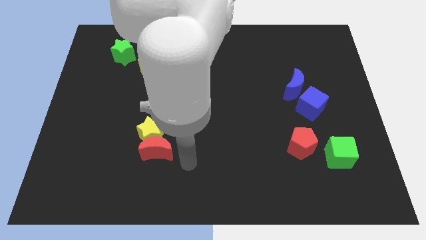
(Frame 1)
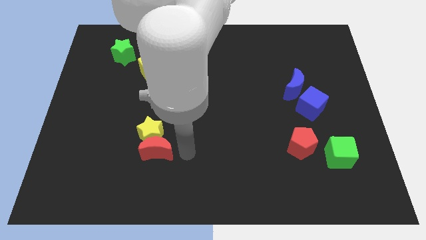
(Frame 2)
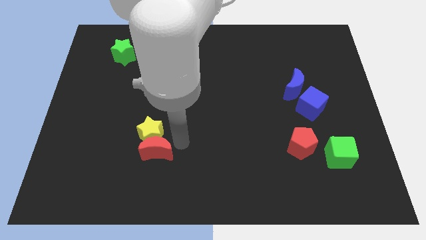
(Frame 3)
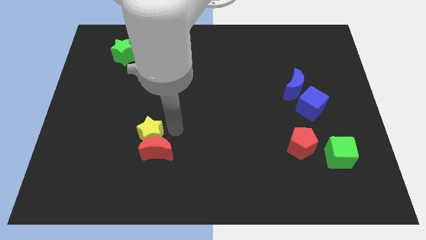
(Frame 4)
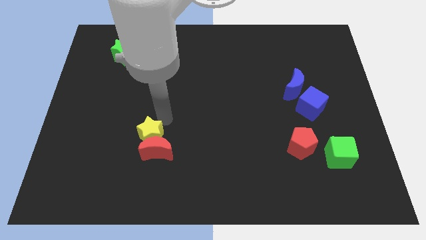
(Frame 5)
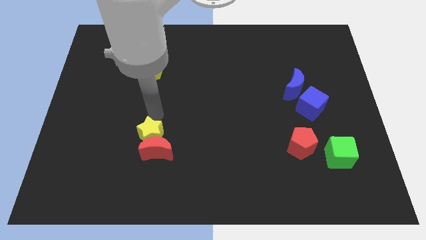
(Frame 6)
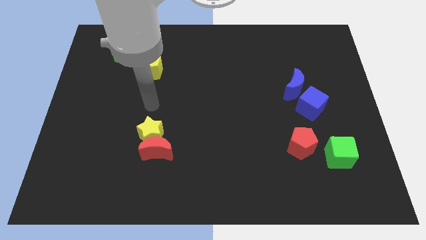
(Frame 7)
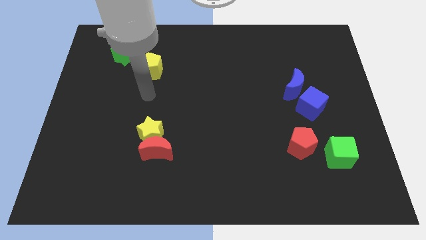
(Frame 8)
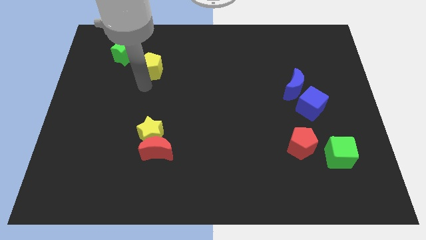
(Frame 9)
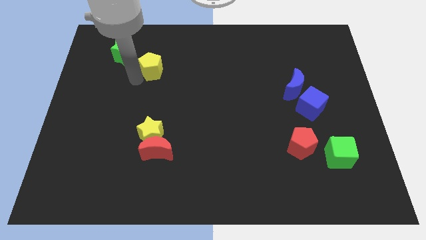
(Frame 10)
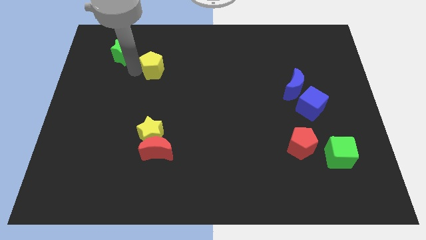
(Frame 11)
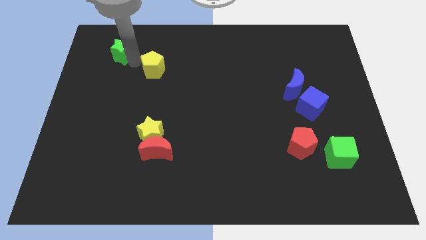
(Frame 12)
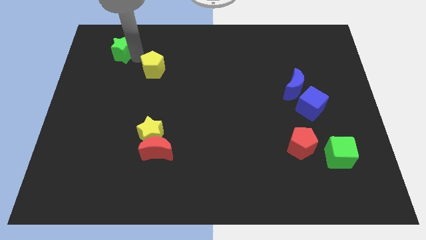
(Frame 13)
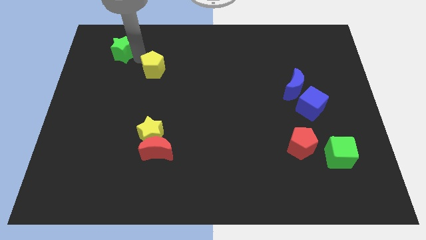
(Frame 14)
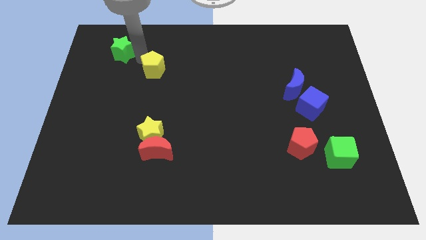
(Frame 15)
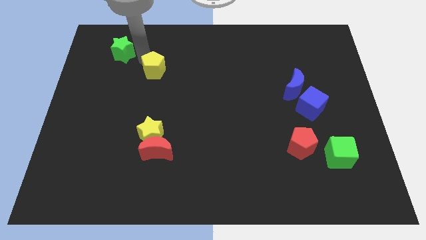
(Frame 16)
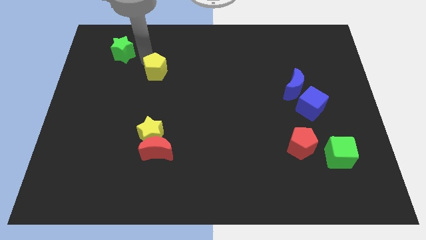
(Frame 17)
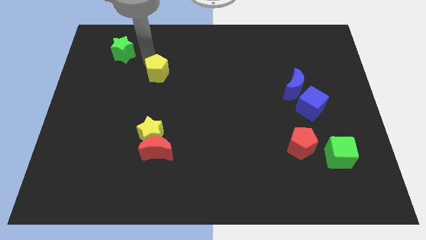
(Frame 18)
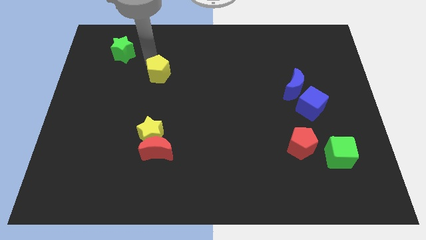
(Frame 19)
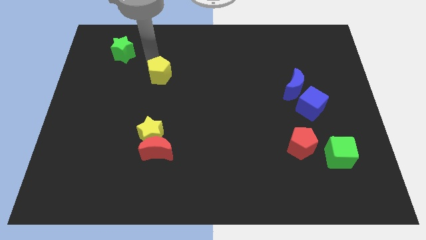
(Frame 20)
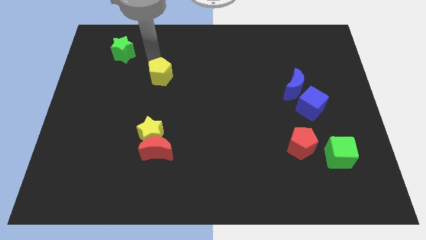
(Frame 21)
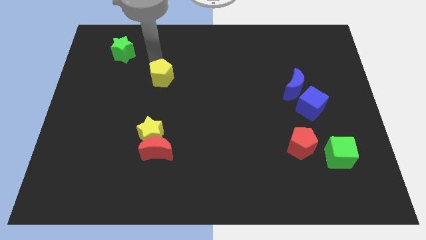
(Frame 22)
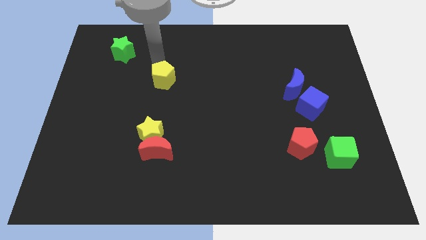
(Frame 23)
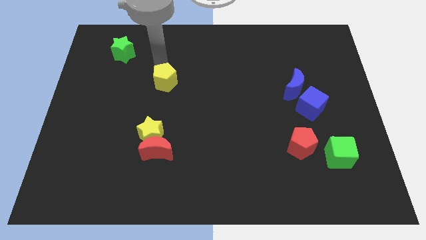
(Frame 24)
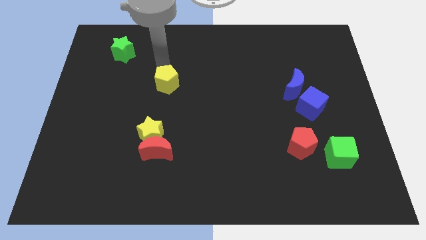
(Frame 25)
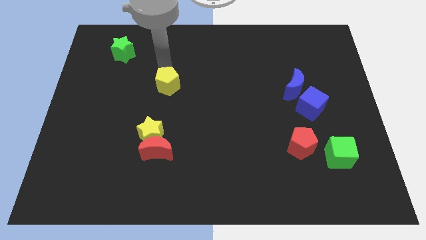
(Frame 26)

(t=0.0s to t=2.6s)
slightly move the yellow pentagon diagonally down and to the right

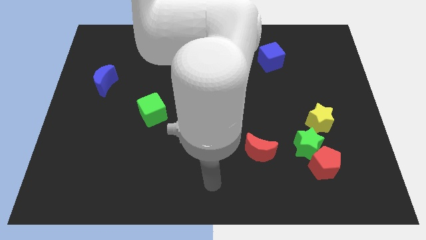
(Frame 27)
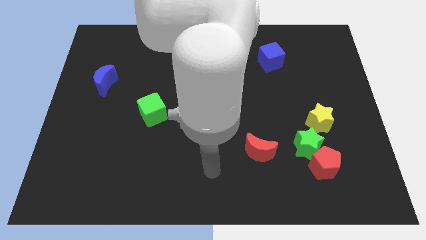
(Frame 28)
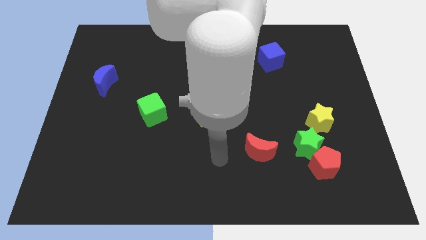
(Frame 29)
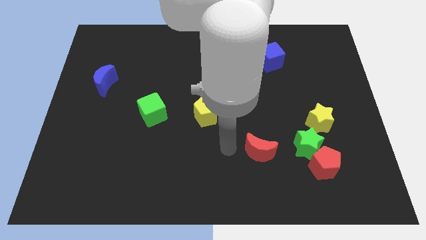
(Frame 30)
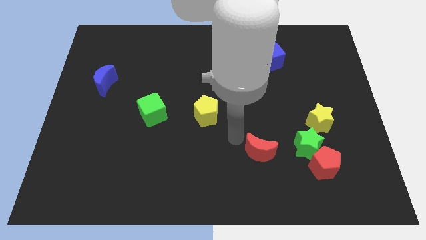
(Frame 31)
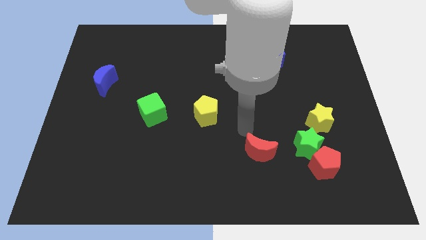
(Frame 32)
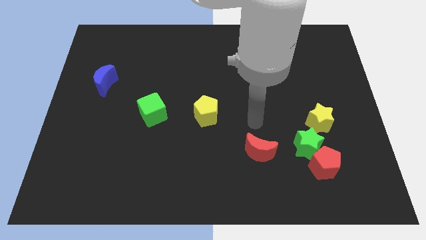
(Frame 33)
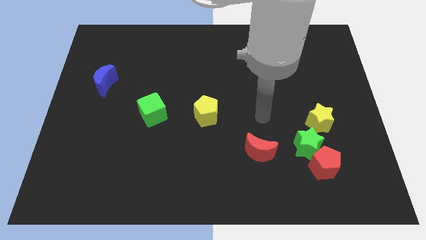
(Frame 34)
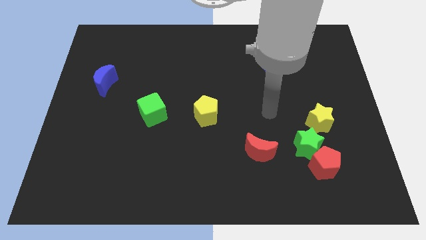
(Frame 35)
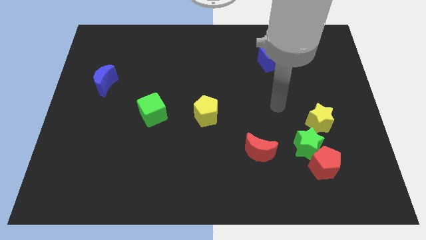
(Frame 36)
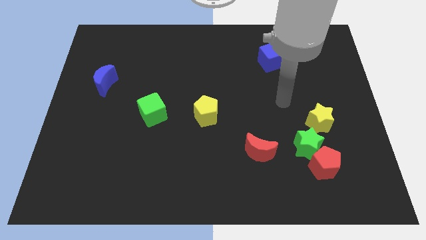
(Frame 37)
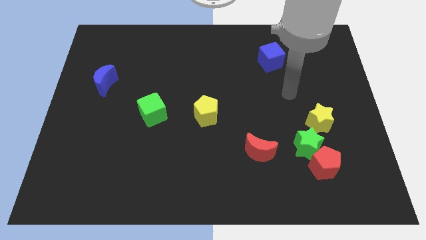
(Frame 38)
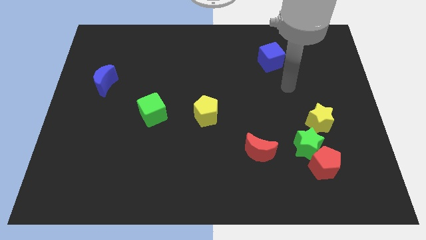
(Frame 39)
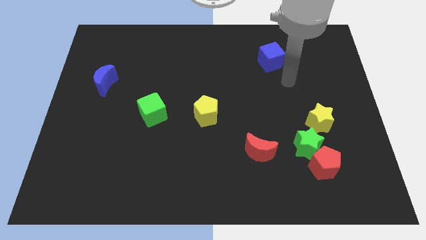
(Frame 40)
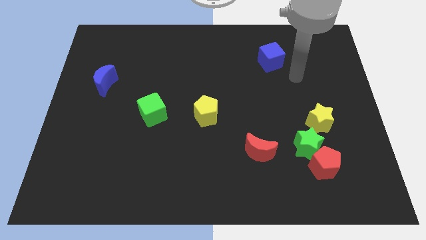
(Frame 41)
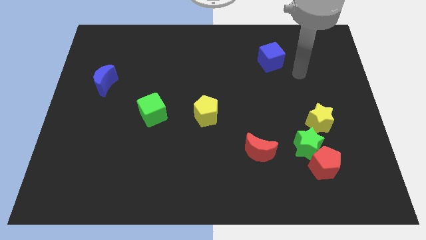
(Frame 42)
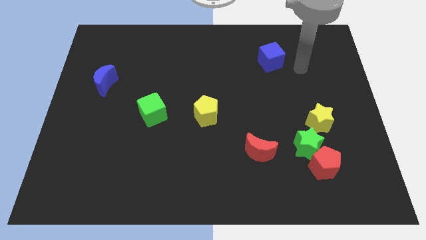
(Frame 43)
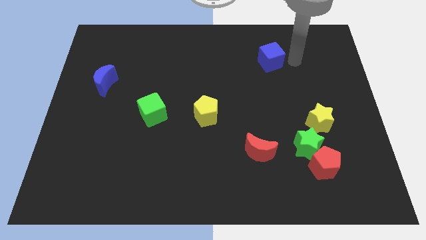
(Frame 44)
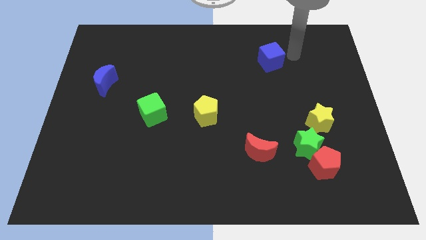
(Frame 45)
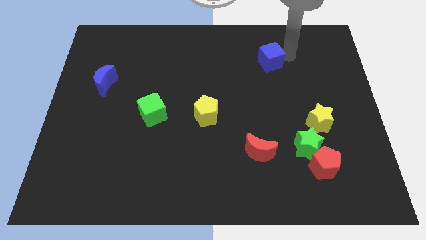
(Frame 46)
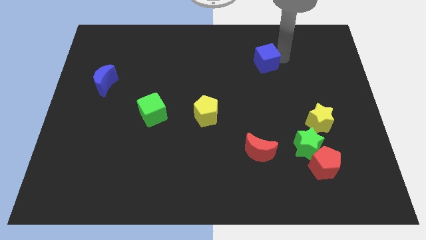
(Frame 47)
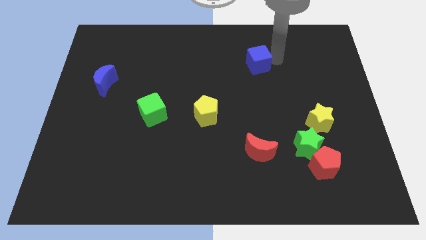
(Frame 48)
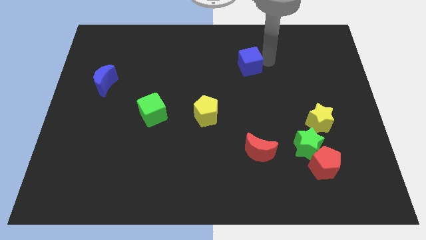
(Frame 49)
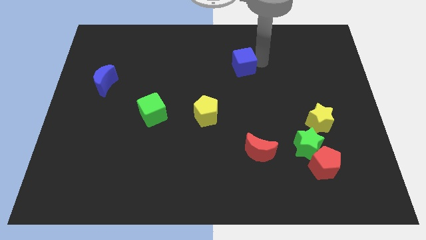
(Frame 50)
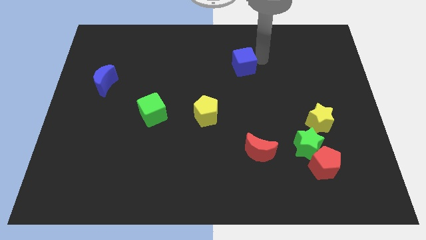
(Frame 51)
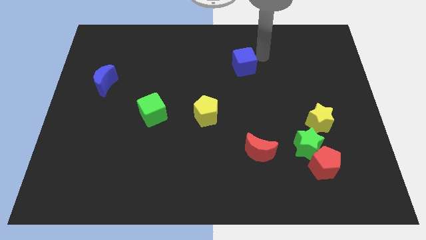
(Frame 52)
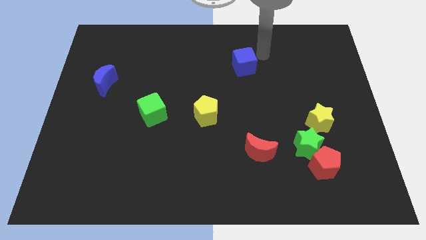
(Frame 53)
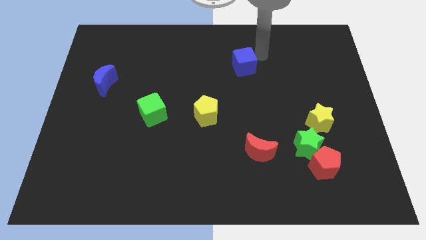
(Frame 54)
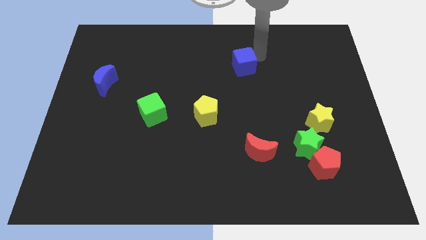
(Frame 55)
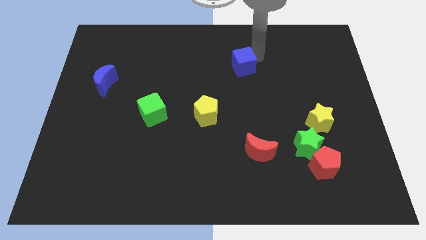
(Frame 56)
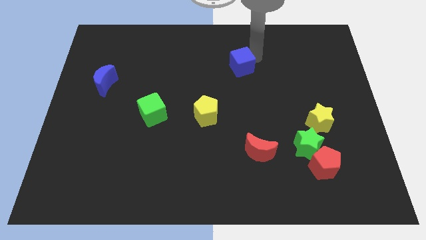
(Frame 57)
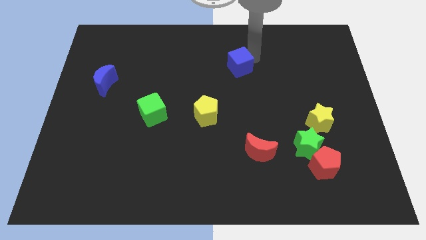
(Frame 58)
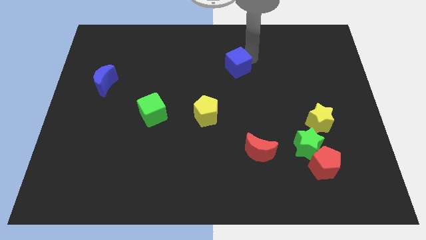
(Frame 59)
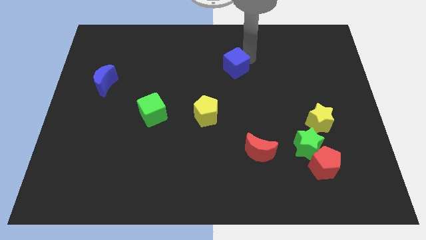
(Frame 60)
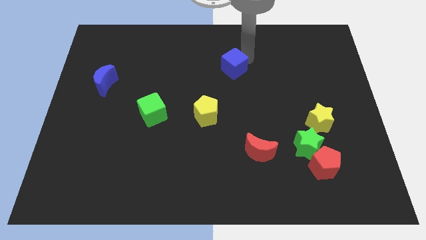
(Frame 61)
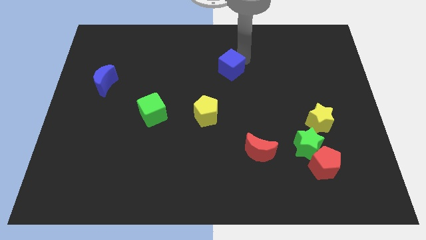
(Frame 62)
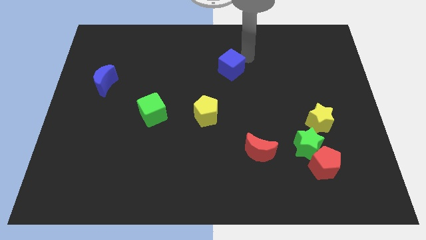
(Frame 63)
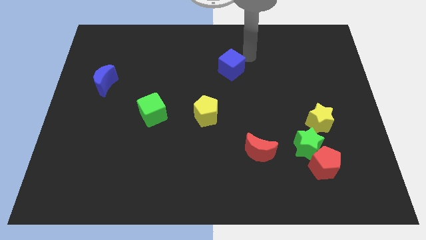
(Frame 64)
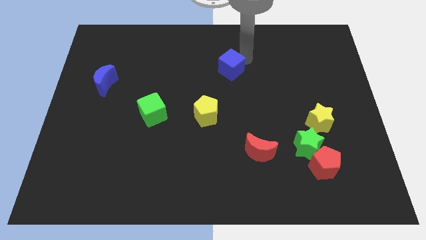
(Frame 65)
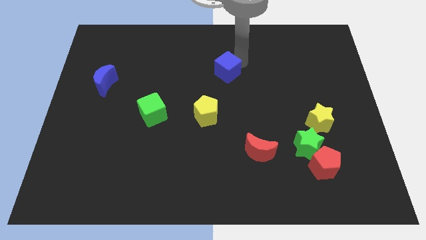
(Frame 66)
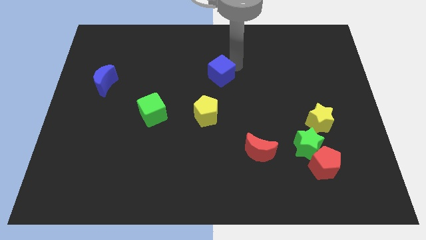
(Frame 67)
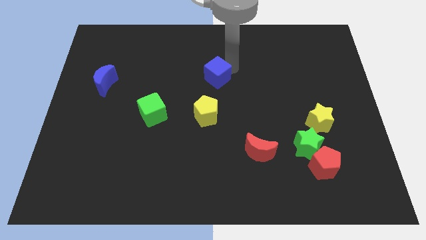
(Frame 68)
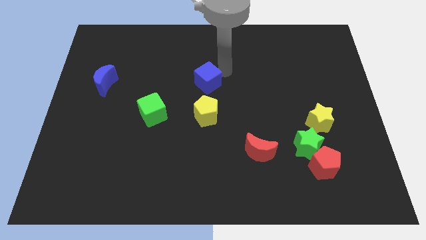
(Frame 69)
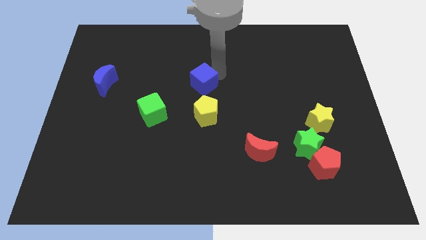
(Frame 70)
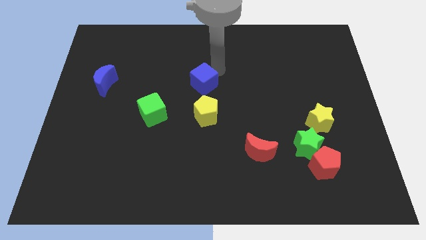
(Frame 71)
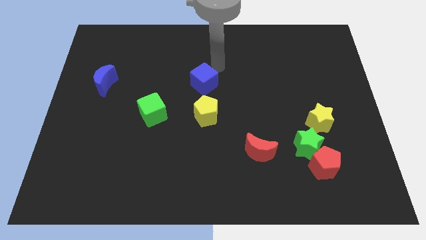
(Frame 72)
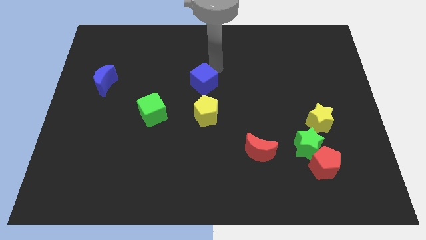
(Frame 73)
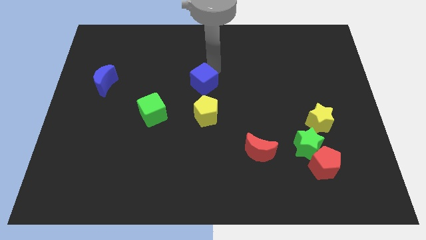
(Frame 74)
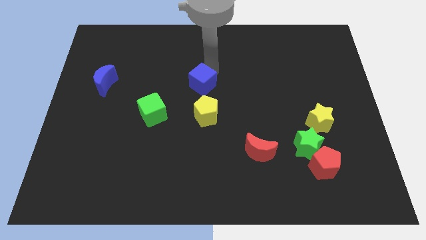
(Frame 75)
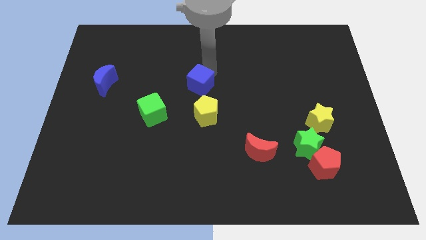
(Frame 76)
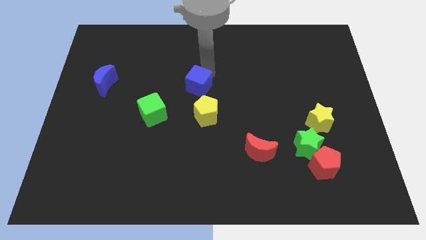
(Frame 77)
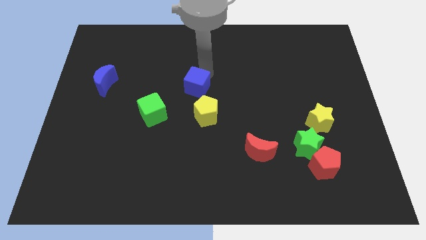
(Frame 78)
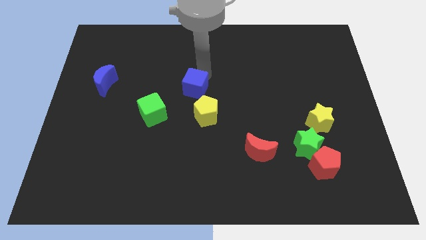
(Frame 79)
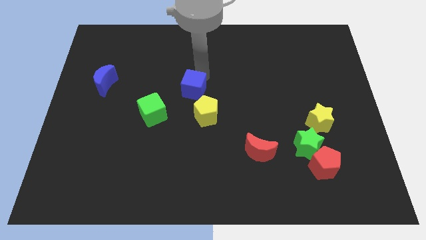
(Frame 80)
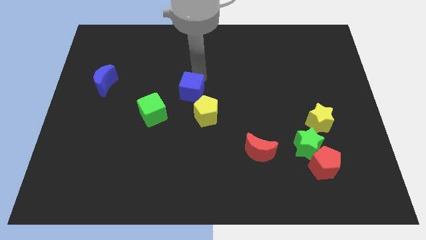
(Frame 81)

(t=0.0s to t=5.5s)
slide the blue cube downwards and to the left diagonally
